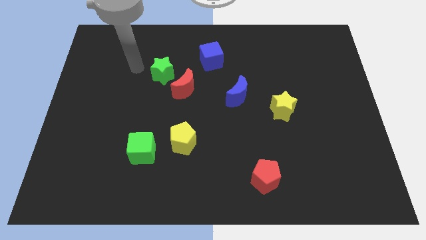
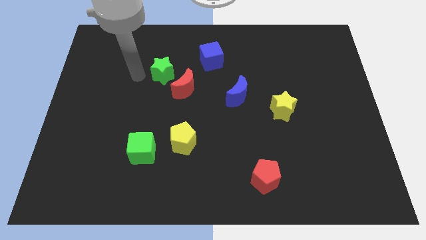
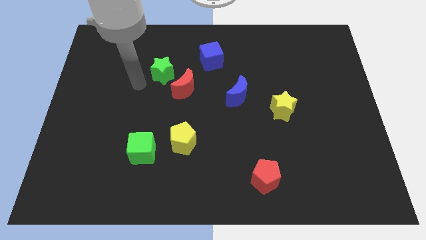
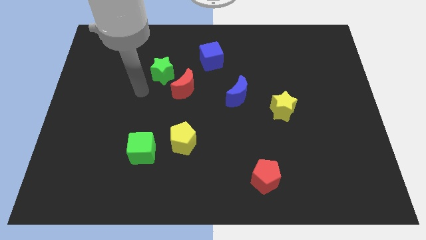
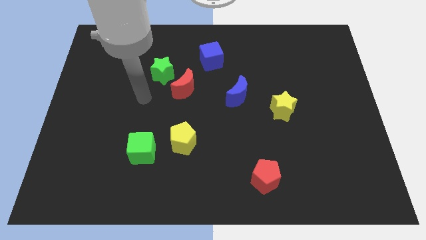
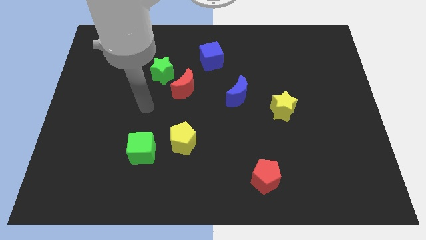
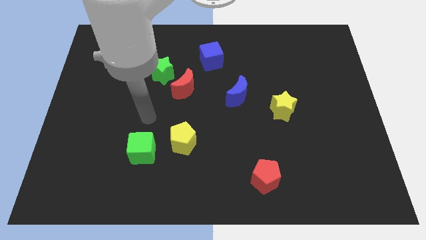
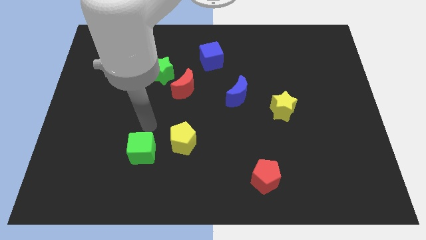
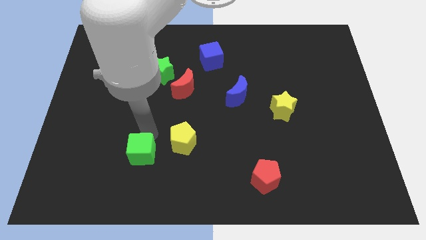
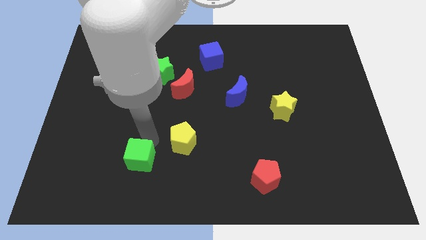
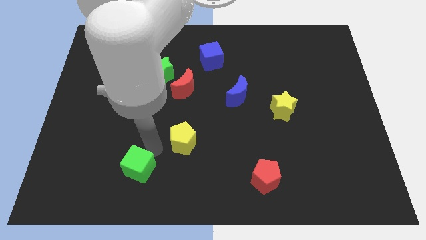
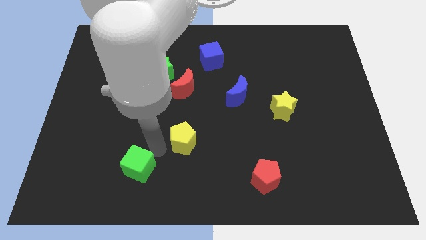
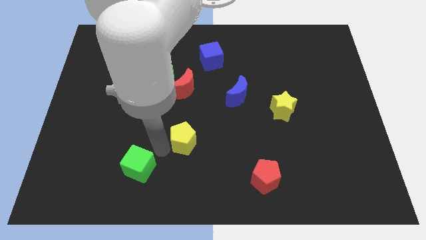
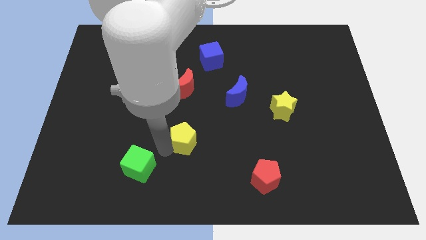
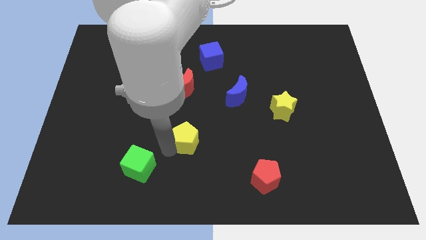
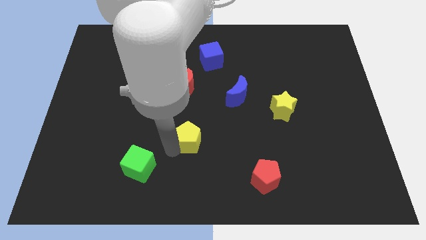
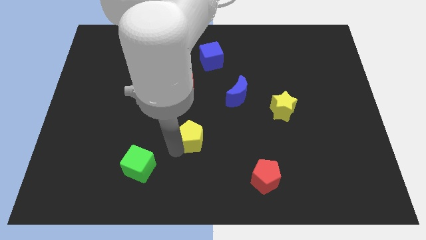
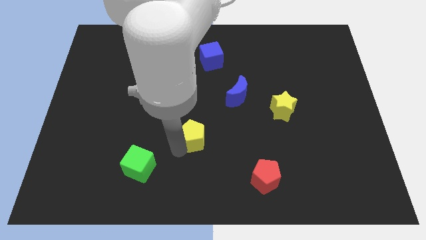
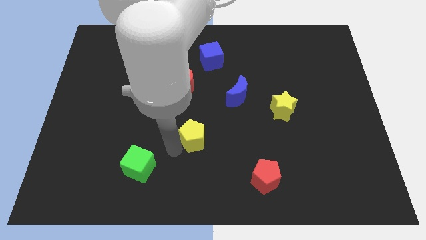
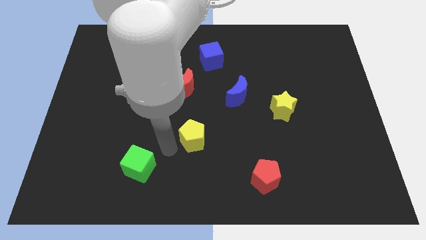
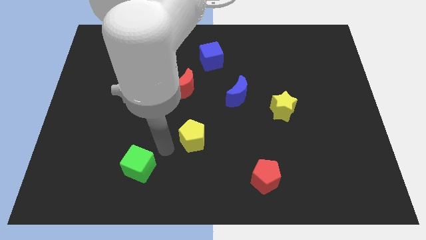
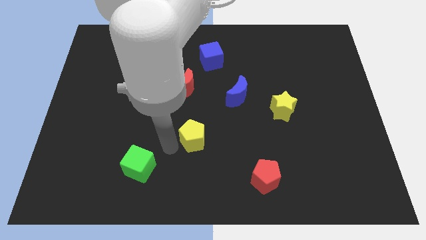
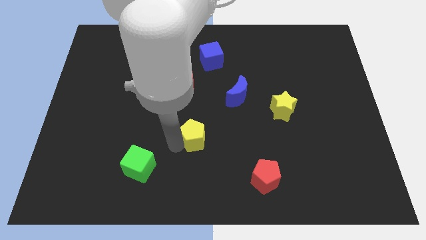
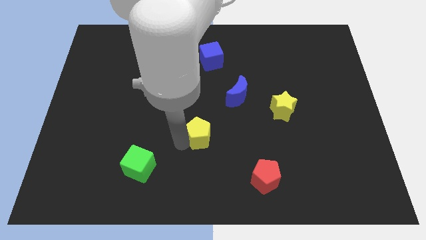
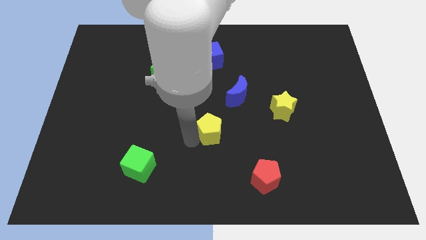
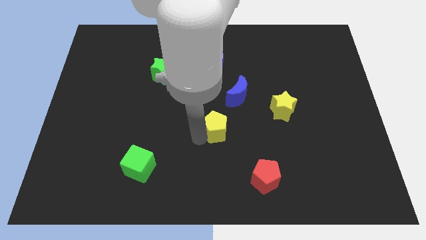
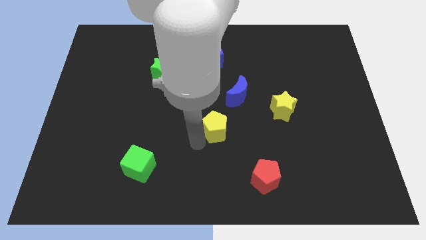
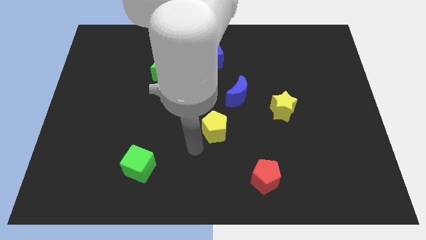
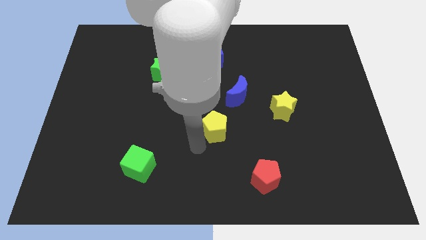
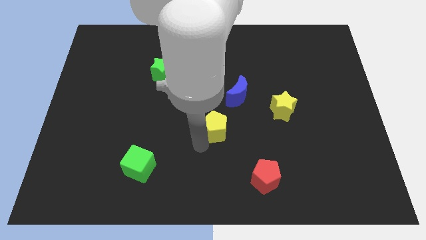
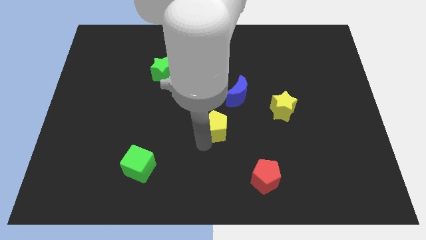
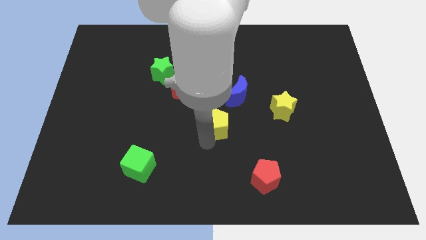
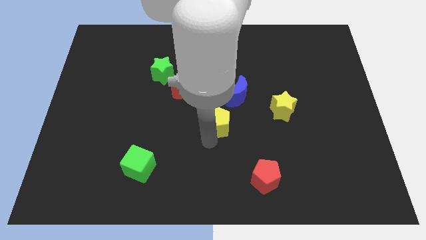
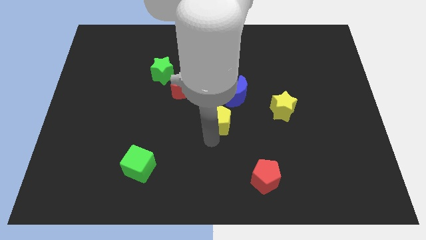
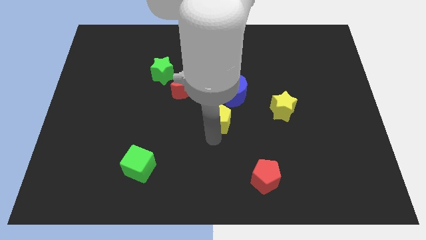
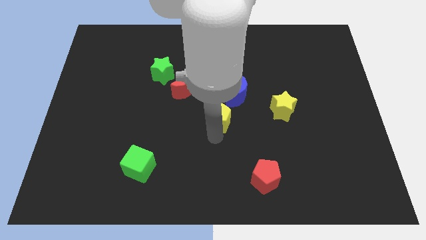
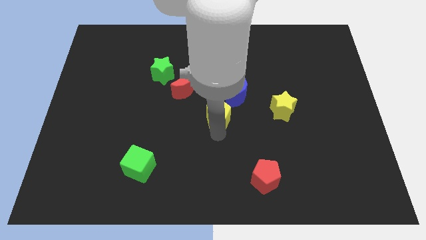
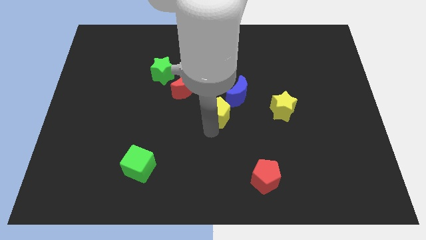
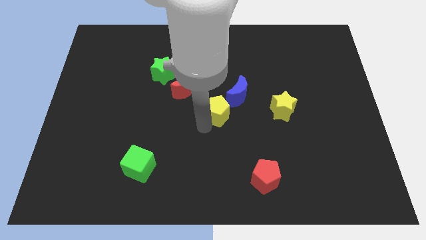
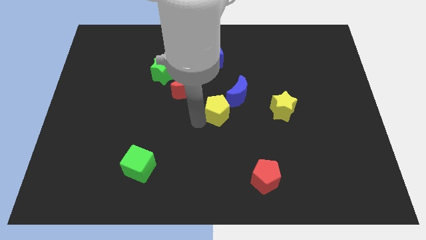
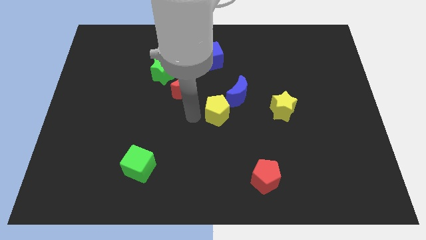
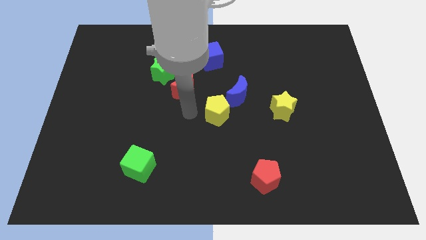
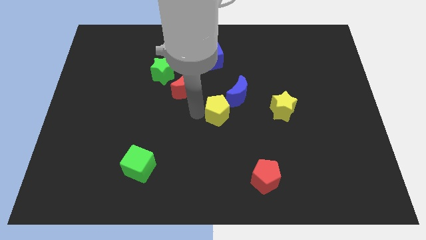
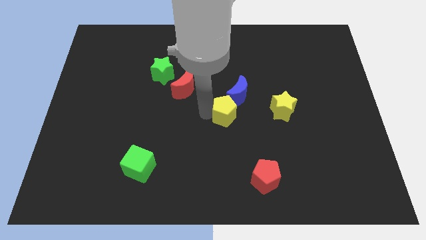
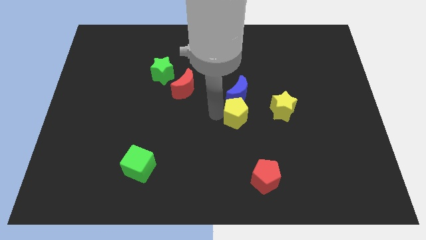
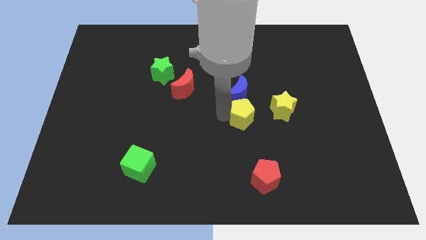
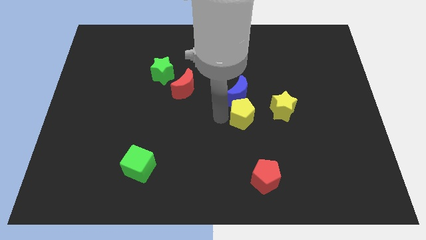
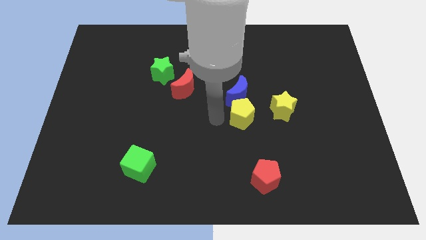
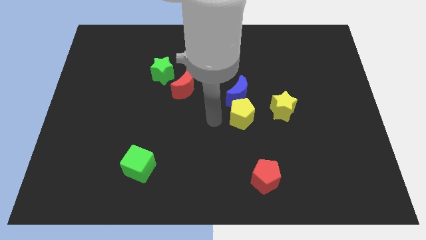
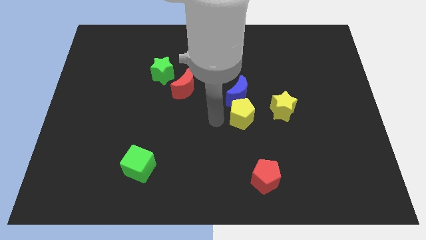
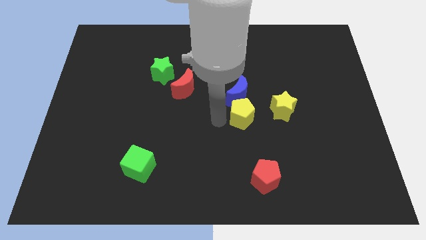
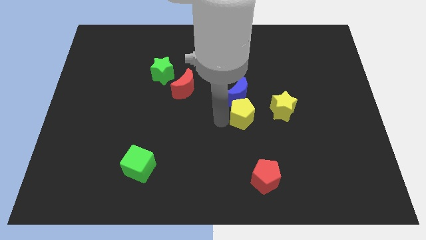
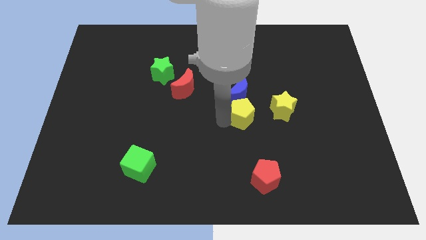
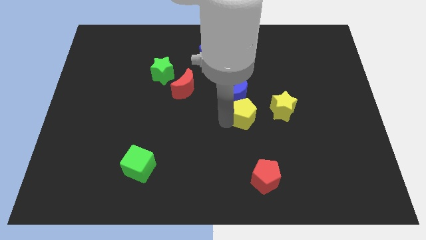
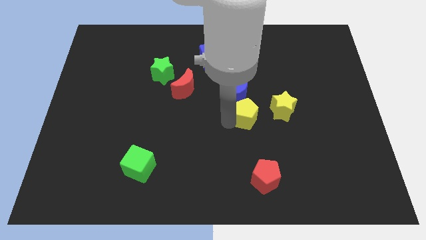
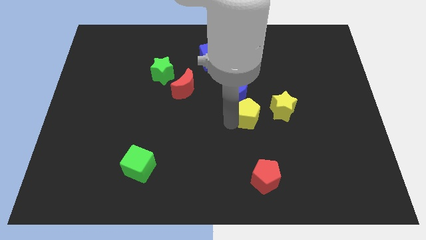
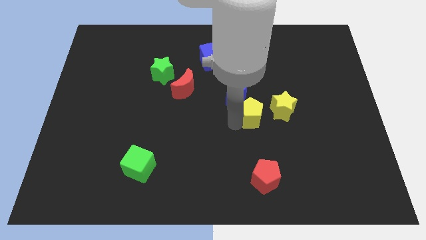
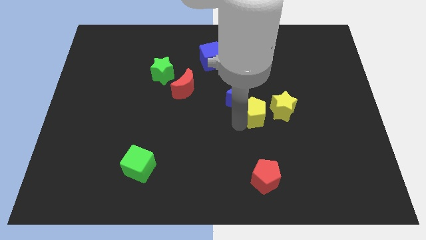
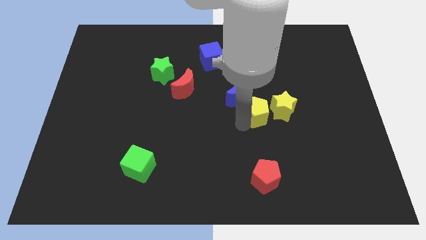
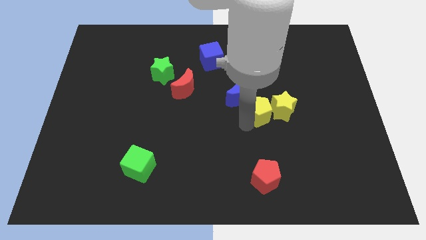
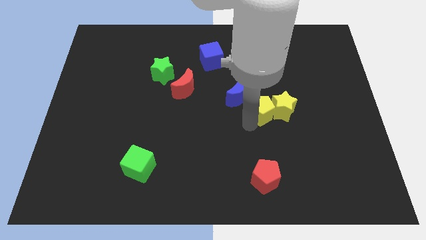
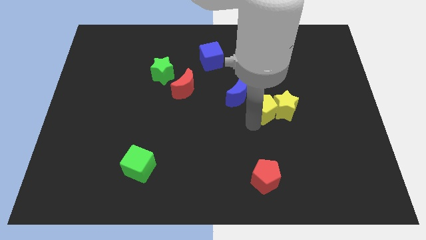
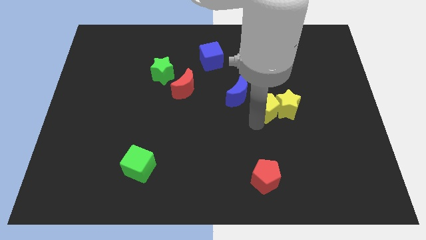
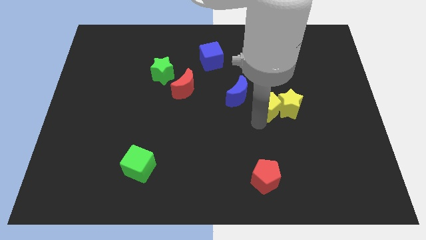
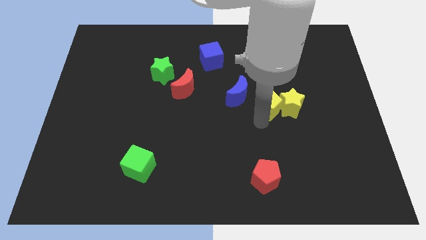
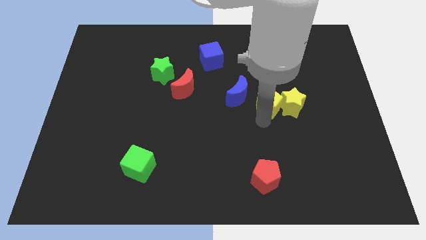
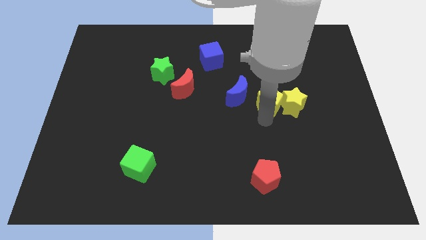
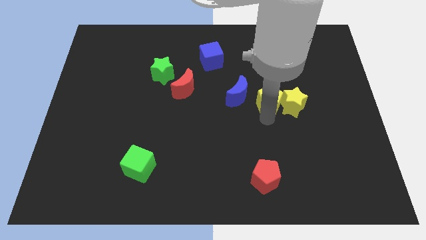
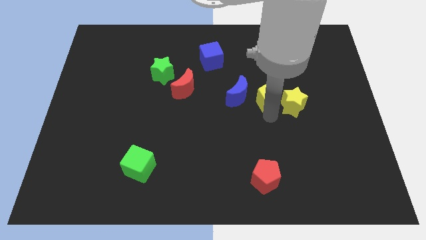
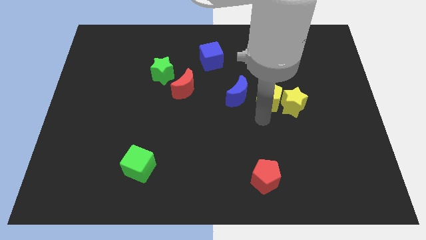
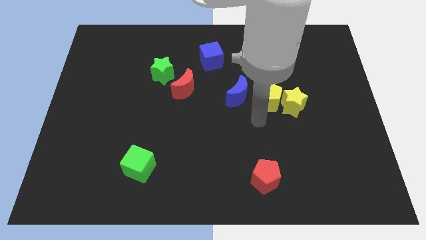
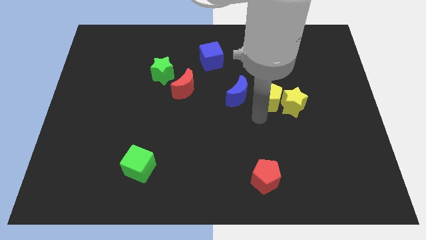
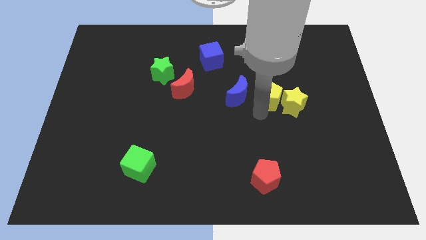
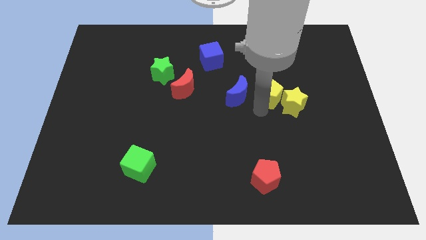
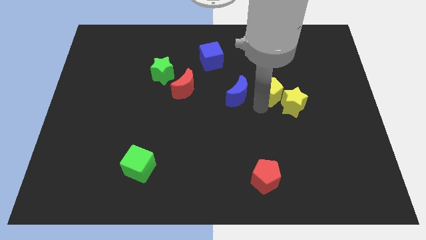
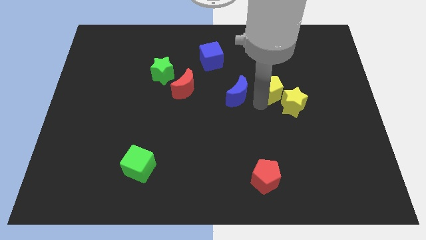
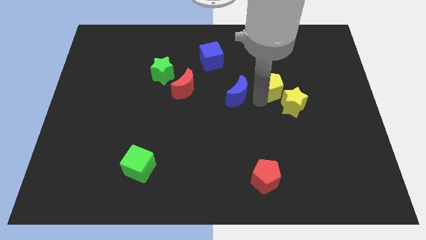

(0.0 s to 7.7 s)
put the yellow pentagon above the yellow star
